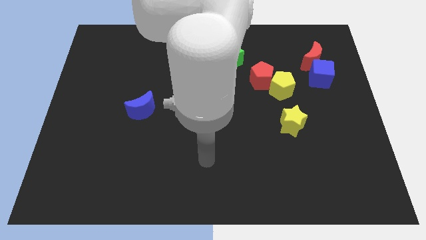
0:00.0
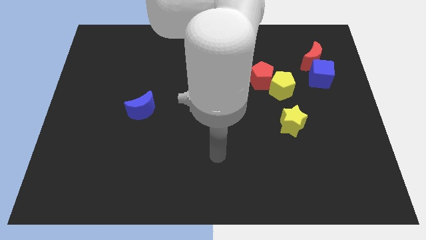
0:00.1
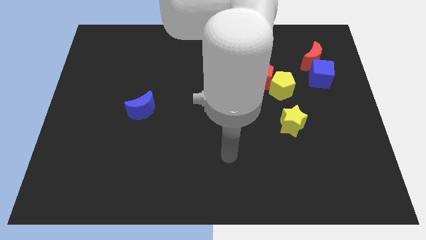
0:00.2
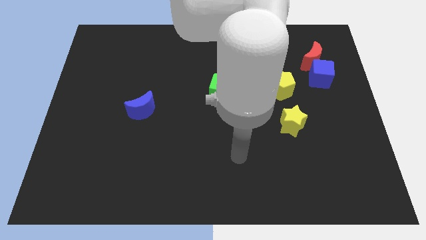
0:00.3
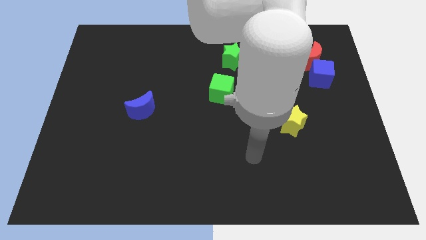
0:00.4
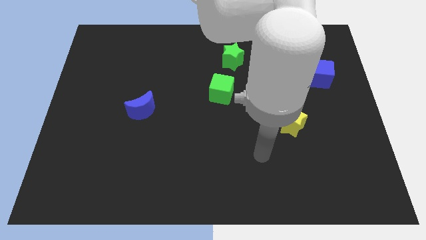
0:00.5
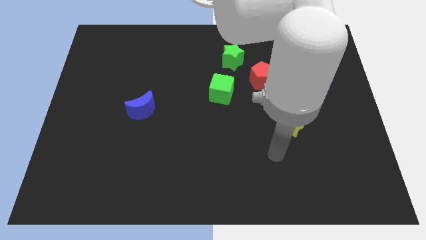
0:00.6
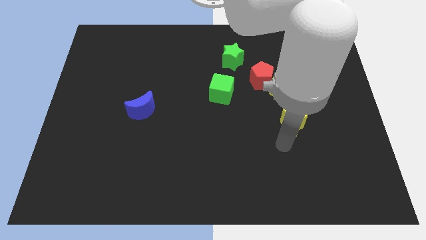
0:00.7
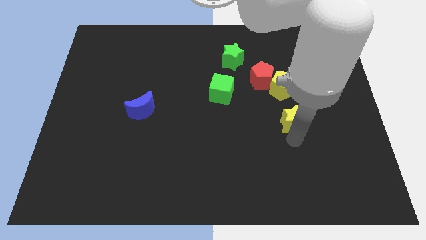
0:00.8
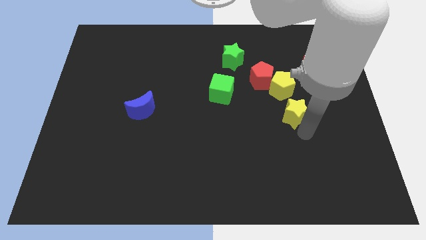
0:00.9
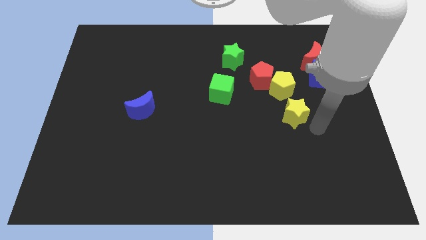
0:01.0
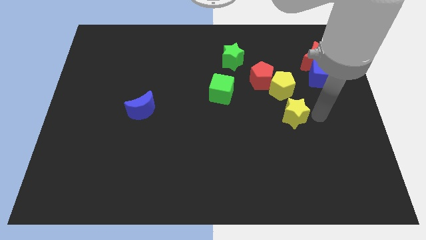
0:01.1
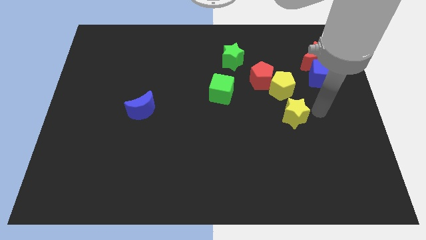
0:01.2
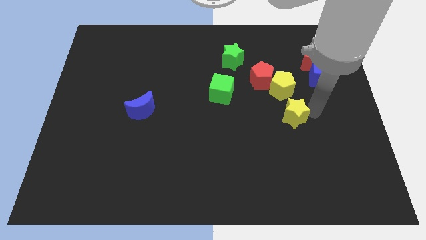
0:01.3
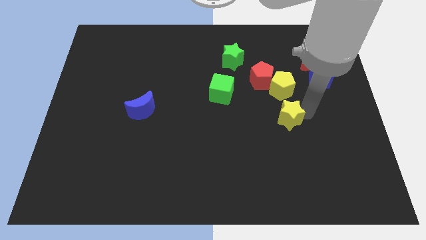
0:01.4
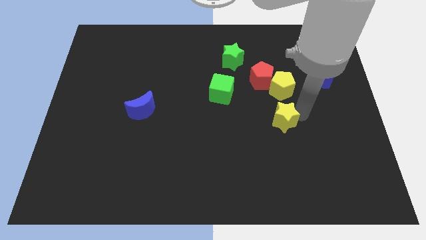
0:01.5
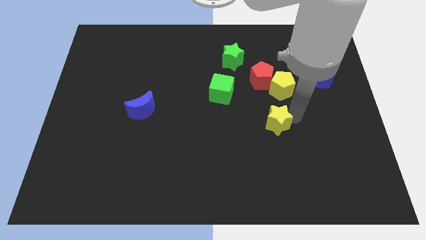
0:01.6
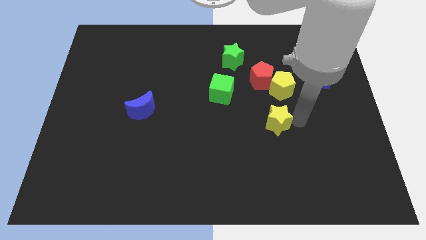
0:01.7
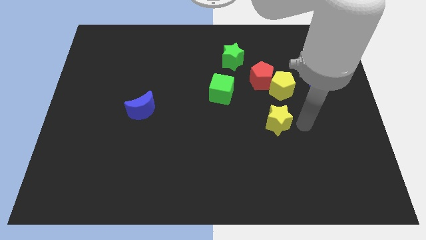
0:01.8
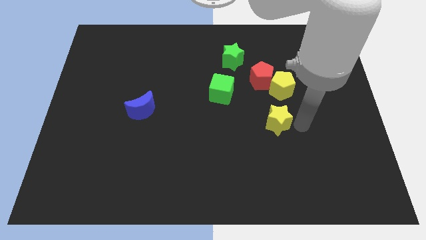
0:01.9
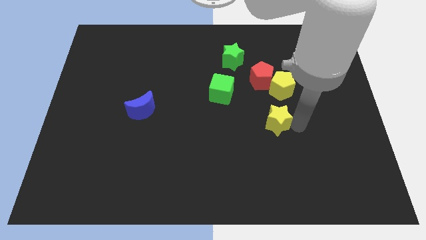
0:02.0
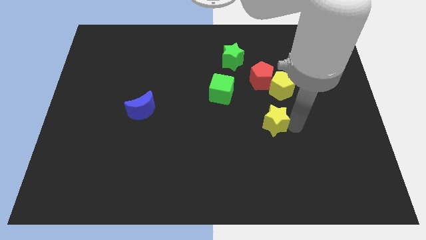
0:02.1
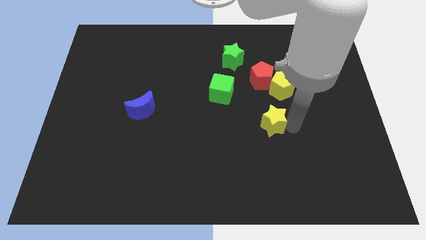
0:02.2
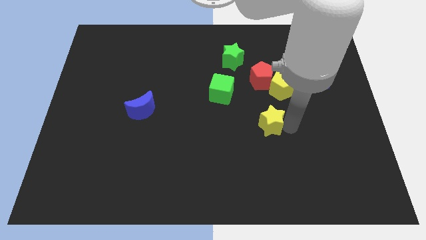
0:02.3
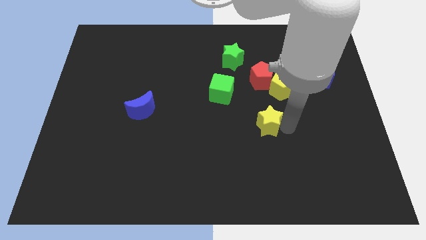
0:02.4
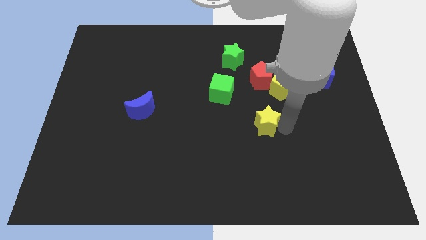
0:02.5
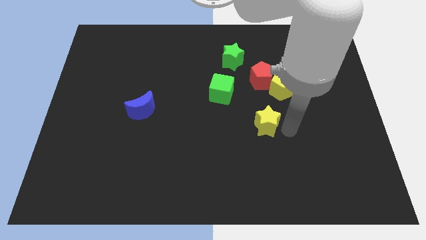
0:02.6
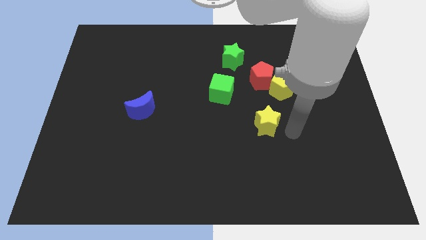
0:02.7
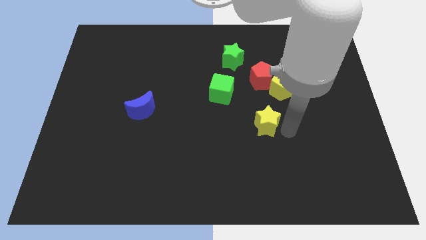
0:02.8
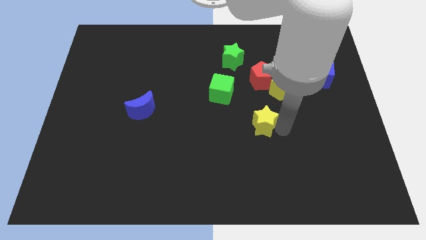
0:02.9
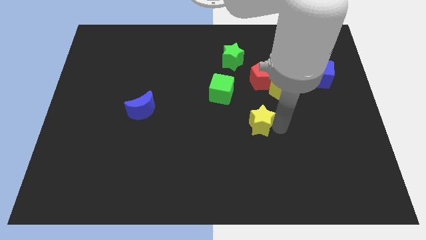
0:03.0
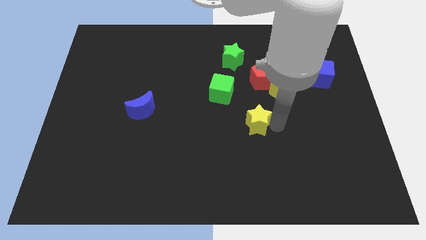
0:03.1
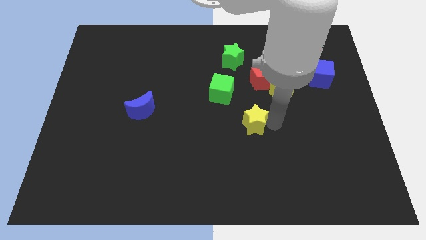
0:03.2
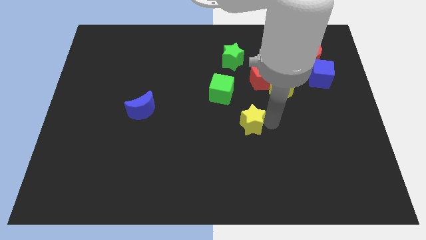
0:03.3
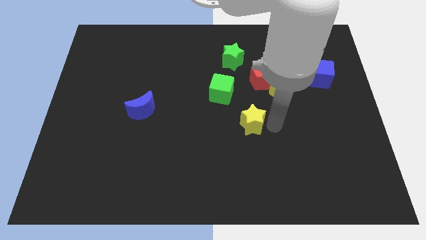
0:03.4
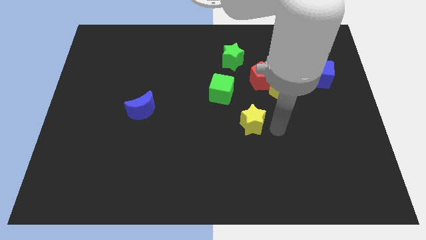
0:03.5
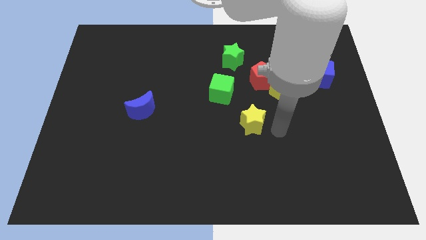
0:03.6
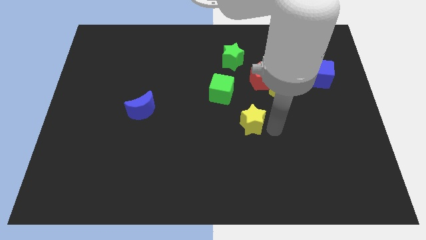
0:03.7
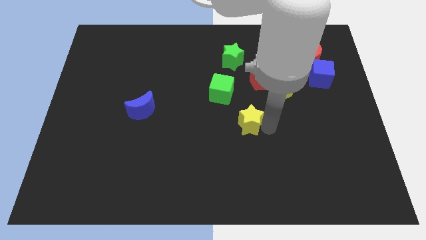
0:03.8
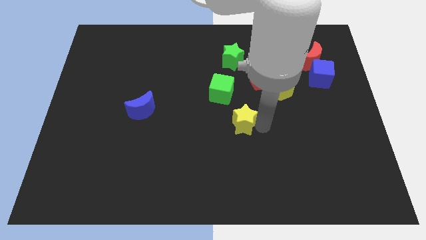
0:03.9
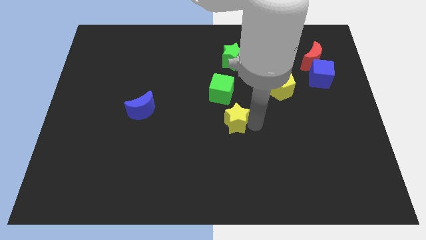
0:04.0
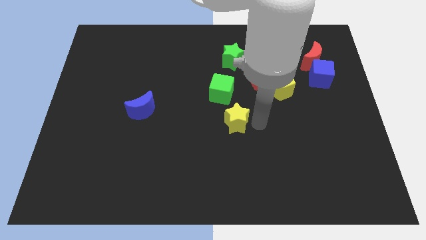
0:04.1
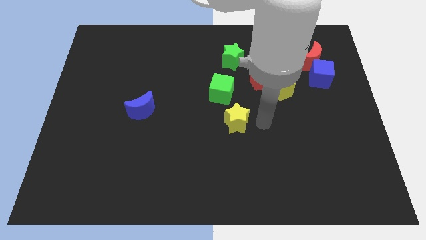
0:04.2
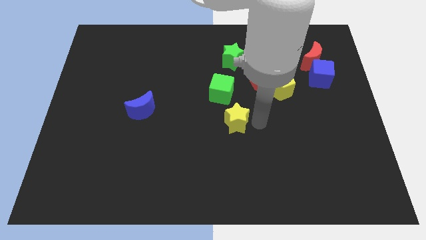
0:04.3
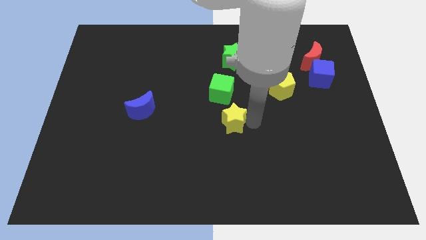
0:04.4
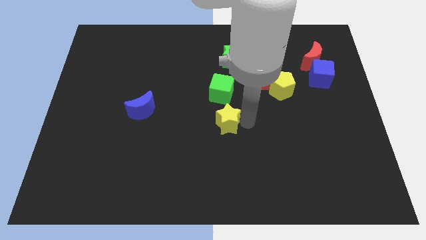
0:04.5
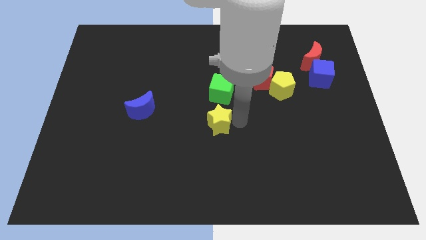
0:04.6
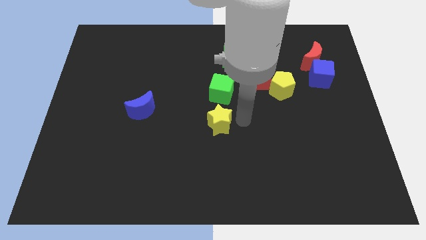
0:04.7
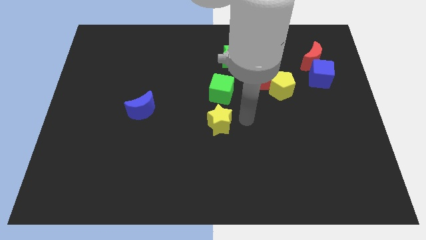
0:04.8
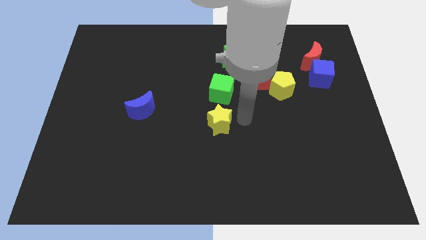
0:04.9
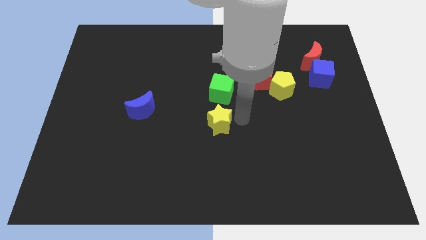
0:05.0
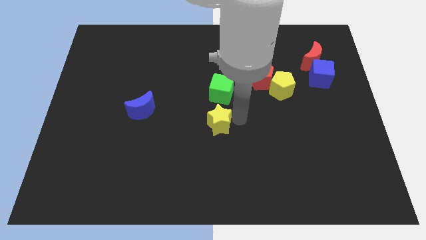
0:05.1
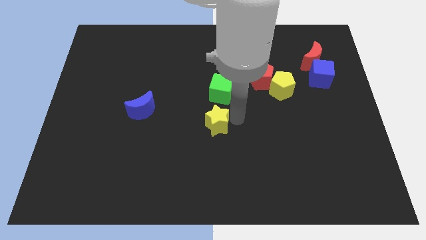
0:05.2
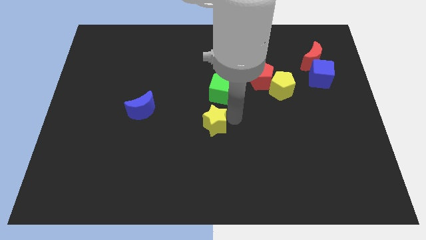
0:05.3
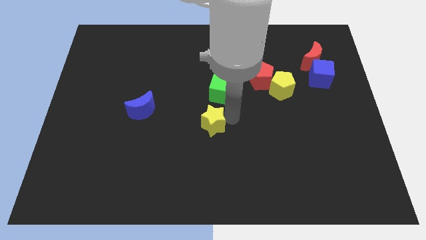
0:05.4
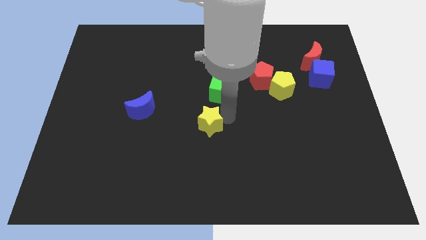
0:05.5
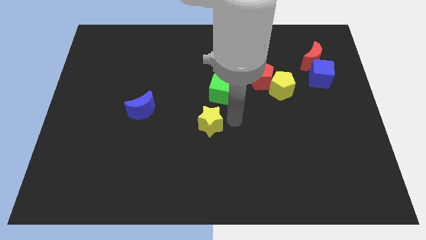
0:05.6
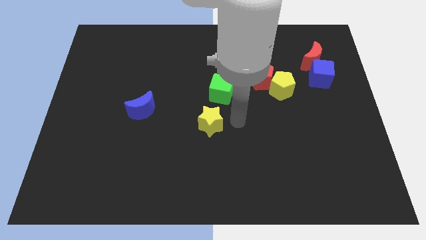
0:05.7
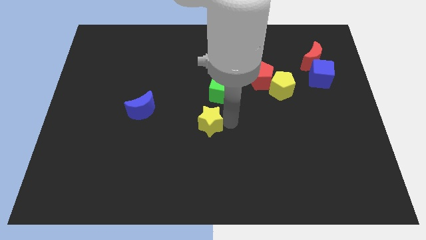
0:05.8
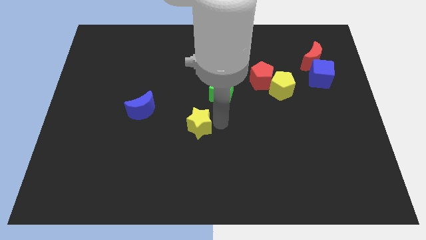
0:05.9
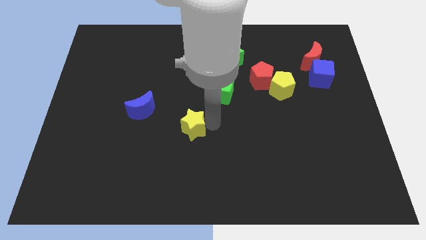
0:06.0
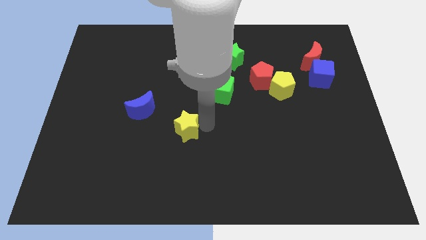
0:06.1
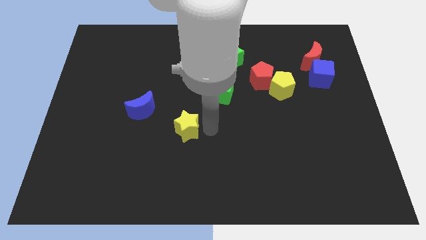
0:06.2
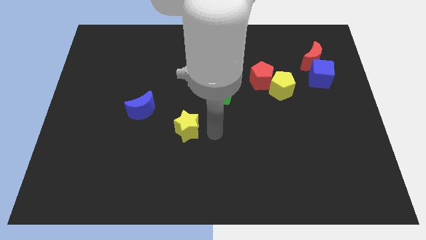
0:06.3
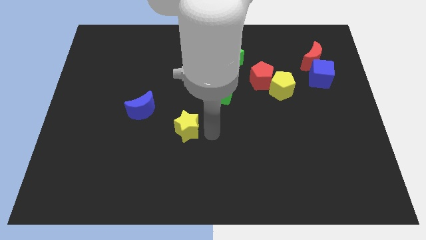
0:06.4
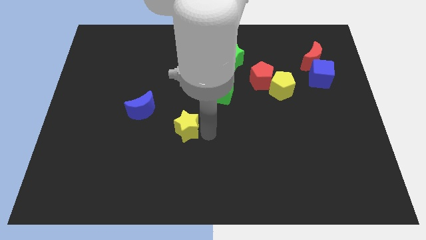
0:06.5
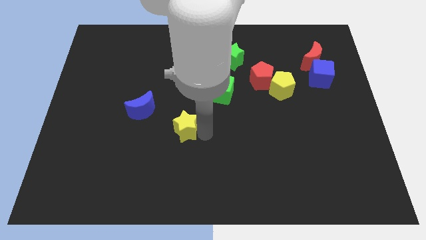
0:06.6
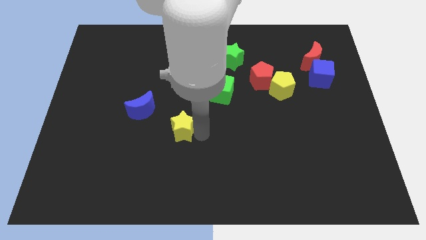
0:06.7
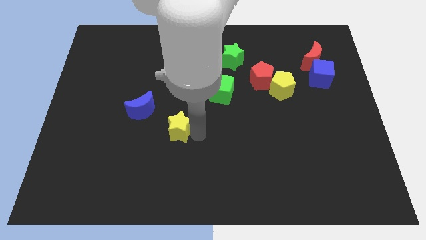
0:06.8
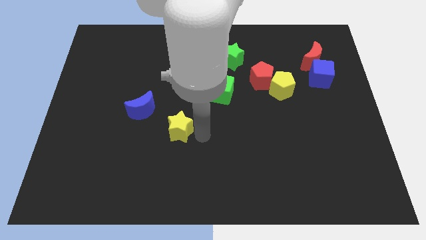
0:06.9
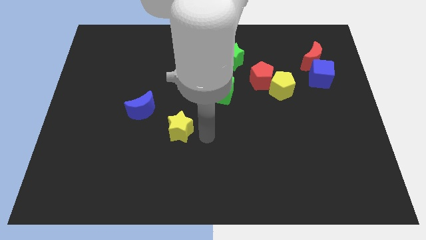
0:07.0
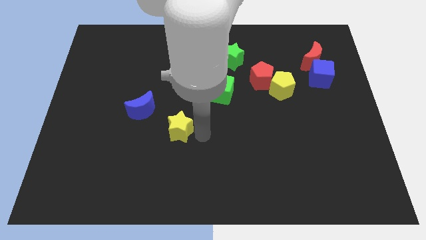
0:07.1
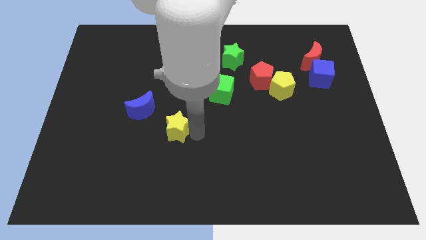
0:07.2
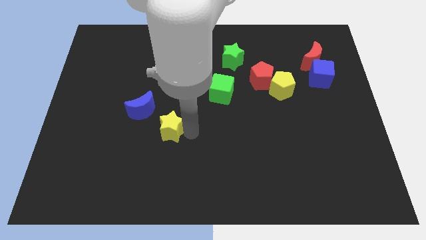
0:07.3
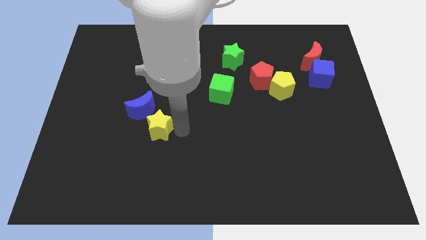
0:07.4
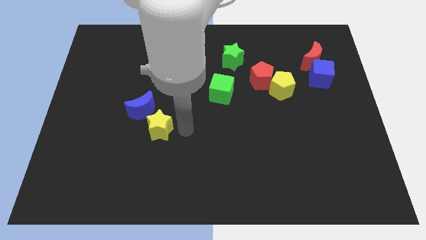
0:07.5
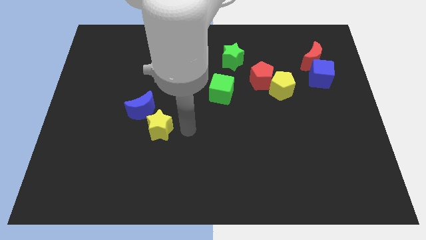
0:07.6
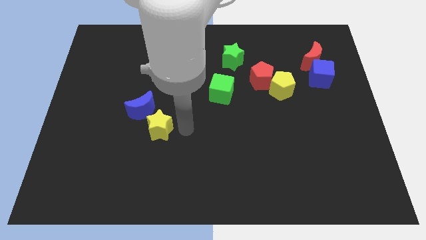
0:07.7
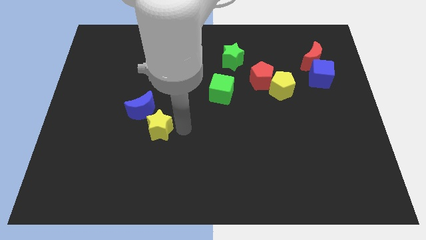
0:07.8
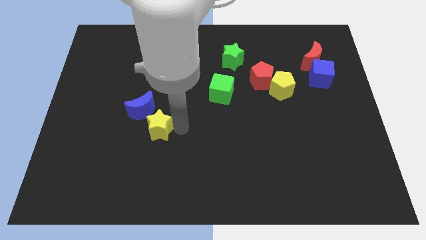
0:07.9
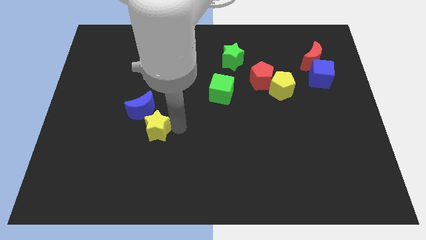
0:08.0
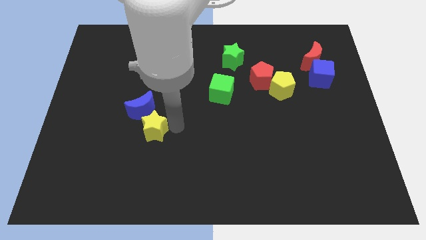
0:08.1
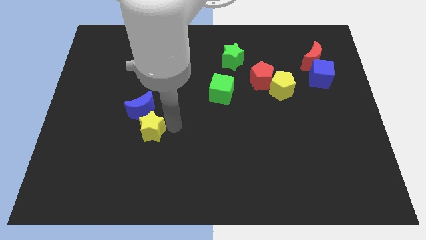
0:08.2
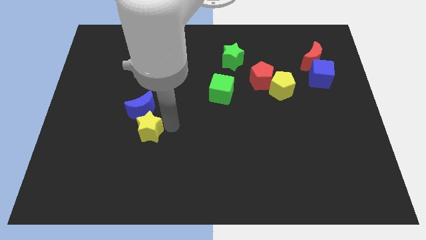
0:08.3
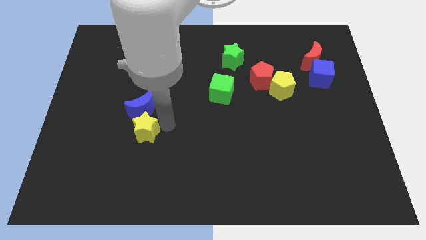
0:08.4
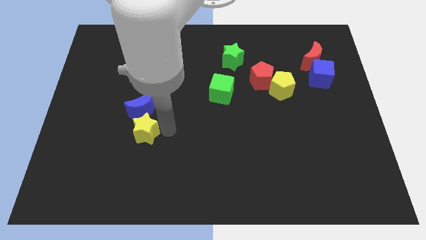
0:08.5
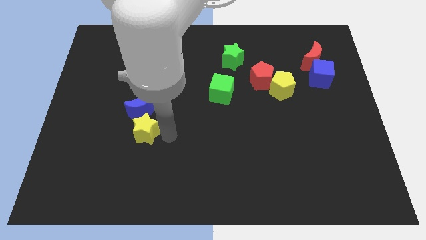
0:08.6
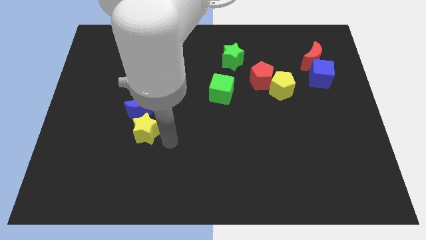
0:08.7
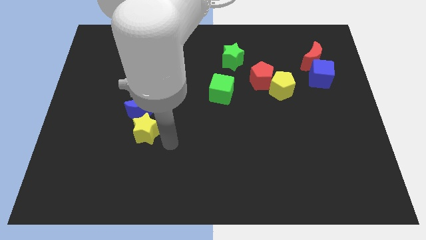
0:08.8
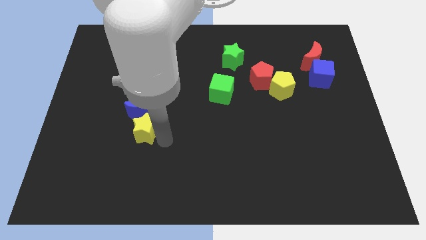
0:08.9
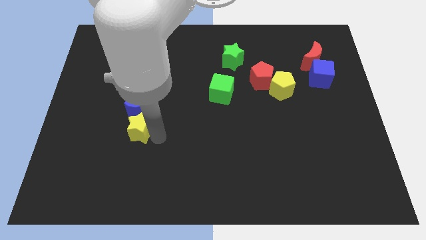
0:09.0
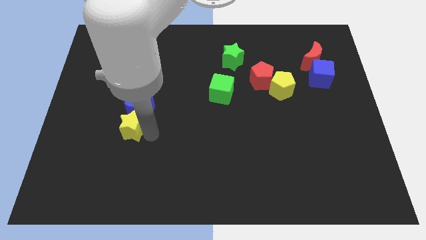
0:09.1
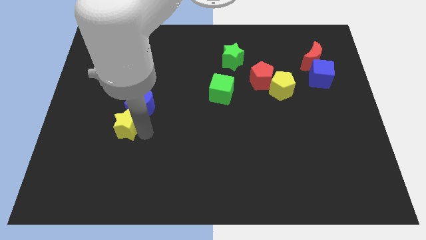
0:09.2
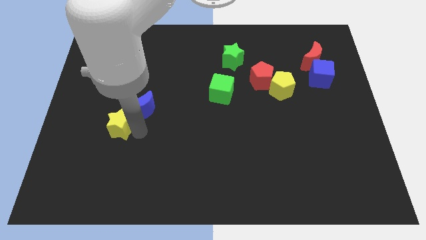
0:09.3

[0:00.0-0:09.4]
push the yellow star just left of the blue moon
